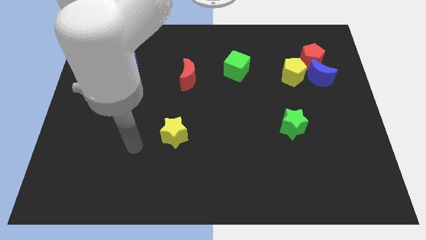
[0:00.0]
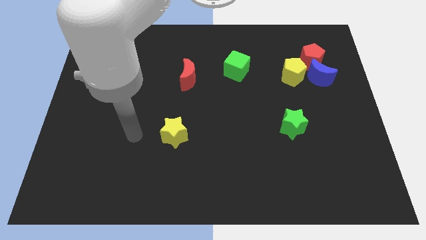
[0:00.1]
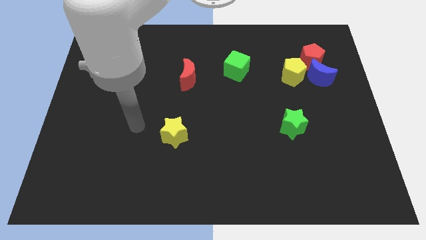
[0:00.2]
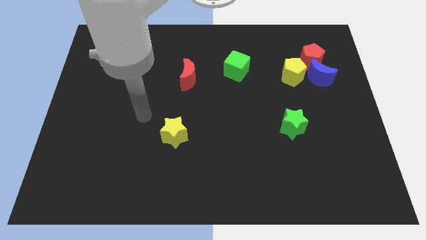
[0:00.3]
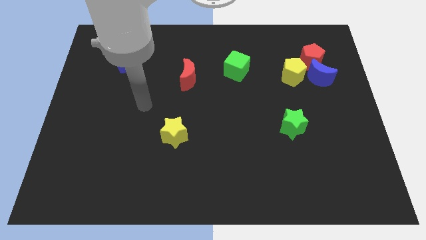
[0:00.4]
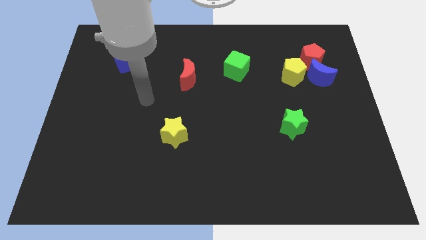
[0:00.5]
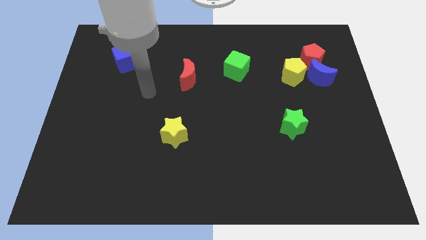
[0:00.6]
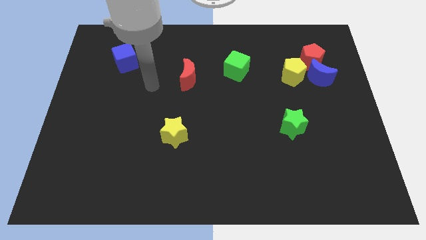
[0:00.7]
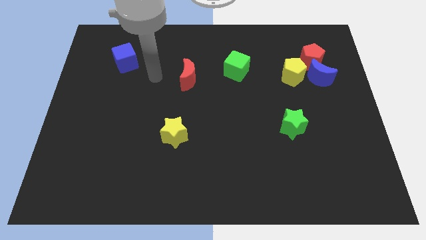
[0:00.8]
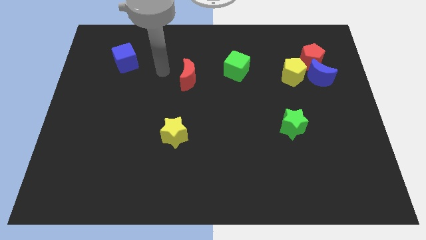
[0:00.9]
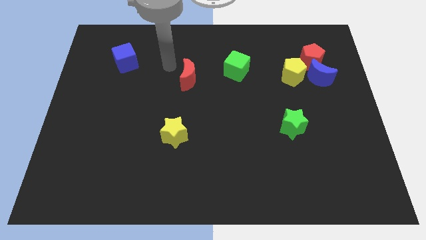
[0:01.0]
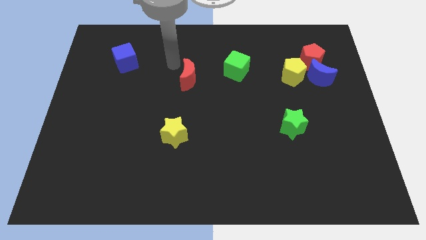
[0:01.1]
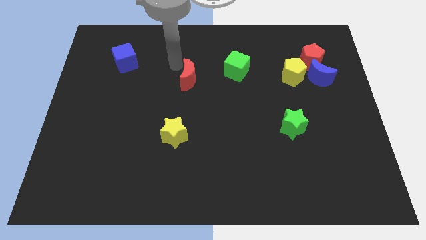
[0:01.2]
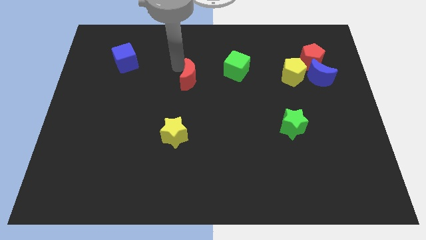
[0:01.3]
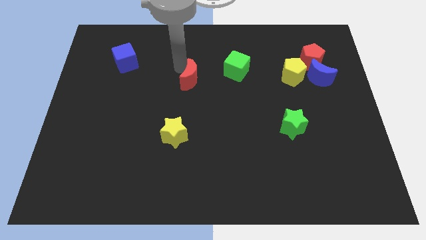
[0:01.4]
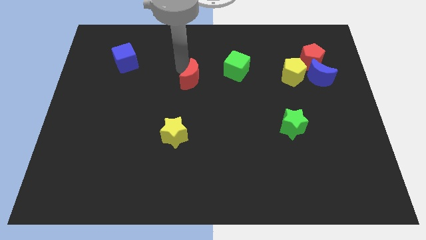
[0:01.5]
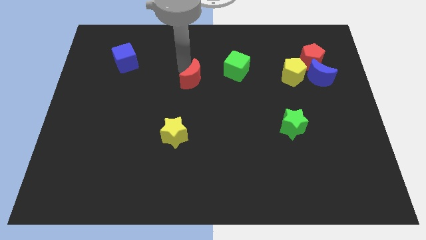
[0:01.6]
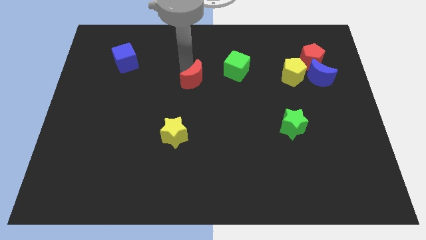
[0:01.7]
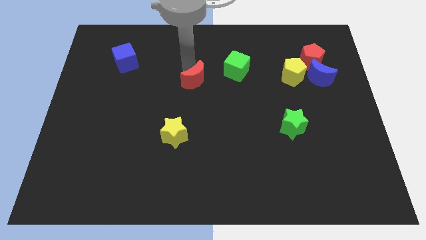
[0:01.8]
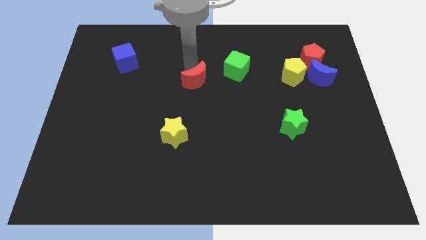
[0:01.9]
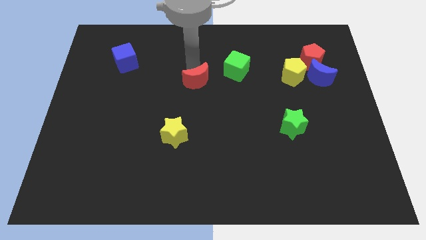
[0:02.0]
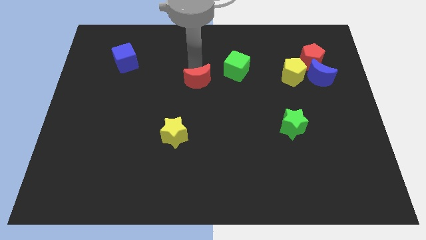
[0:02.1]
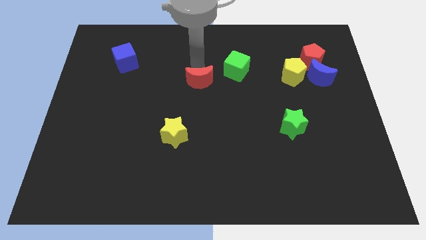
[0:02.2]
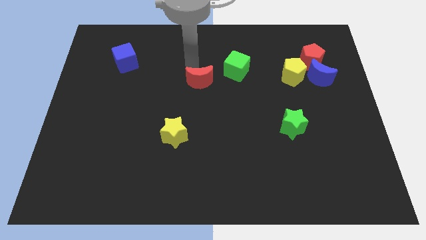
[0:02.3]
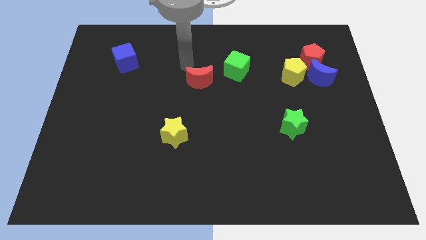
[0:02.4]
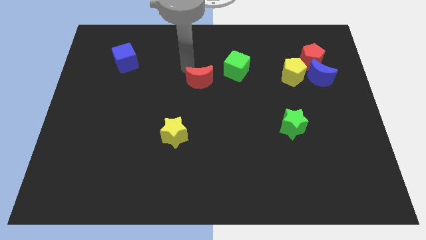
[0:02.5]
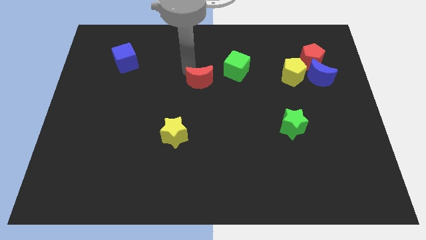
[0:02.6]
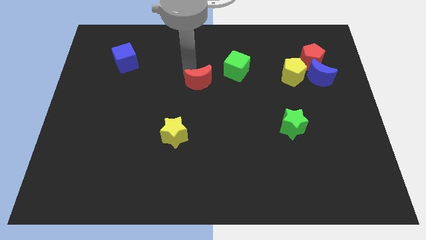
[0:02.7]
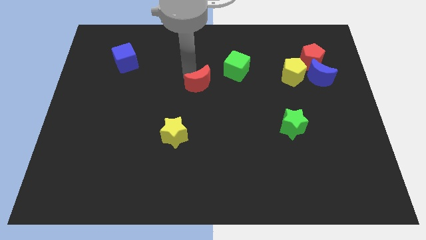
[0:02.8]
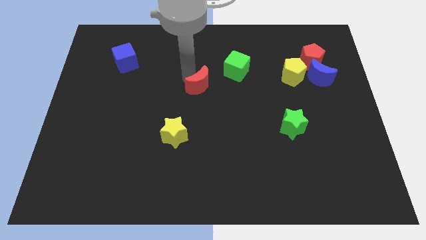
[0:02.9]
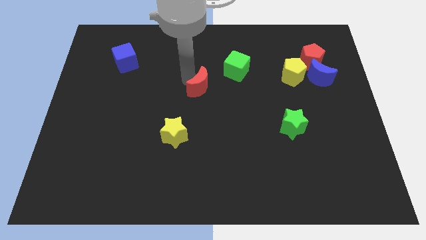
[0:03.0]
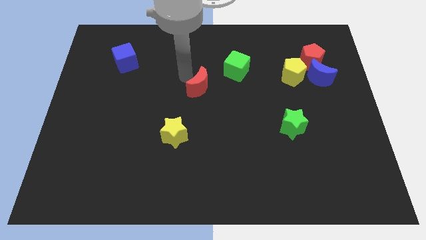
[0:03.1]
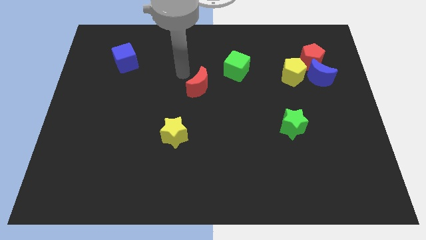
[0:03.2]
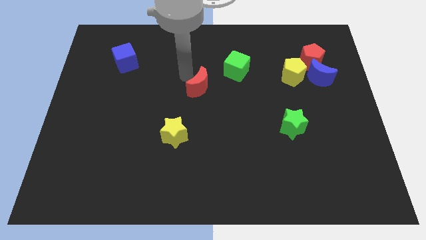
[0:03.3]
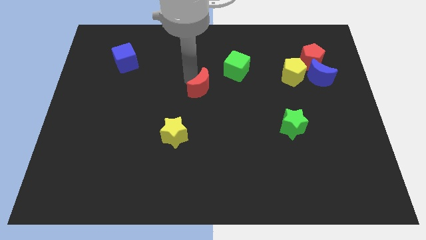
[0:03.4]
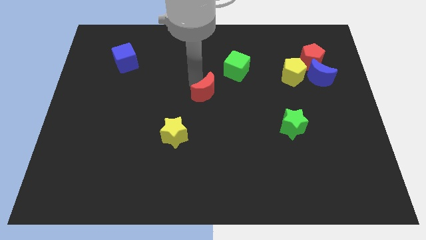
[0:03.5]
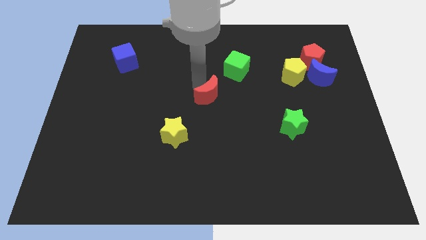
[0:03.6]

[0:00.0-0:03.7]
move the red moon somewhat down and to the right

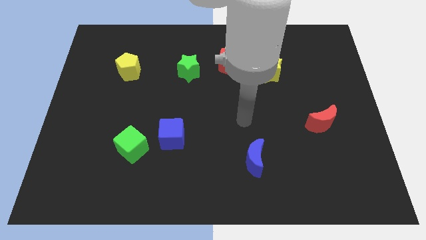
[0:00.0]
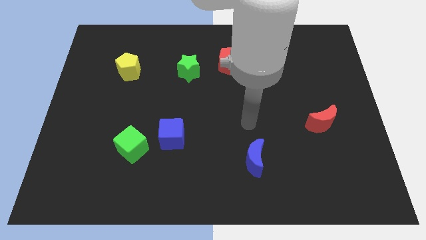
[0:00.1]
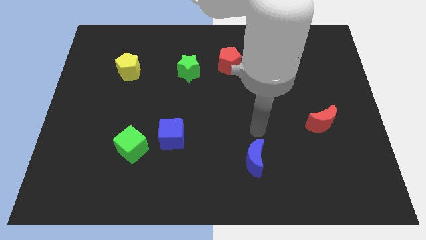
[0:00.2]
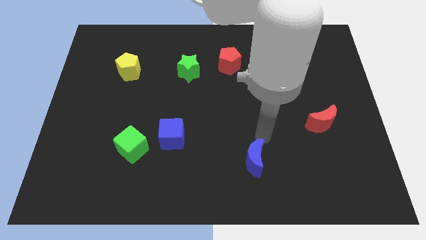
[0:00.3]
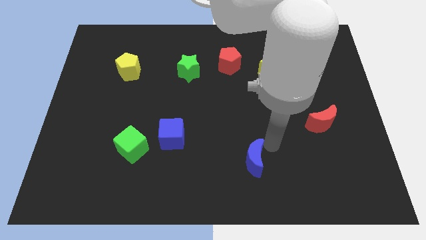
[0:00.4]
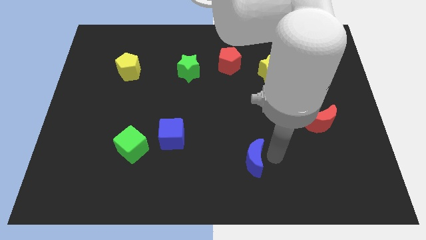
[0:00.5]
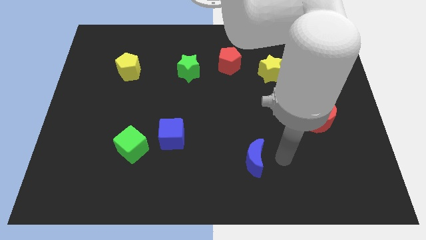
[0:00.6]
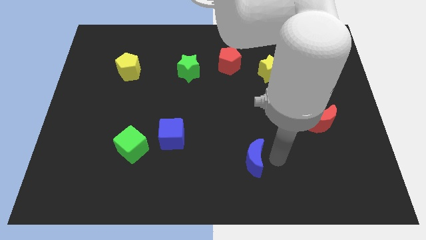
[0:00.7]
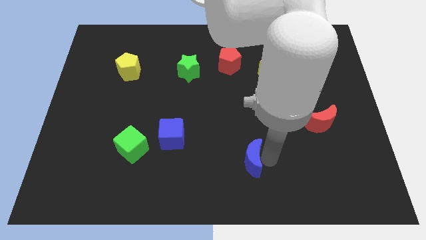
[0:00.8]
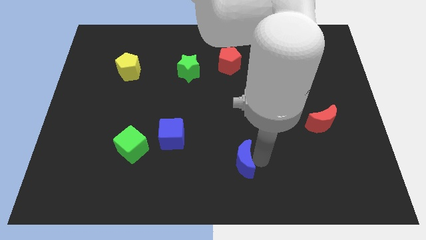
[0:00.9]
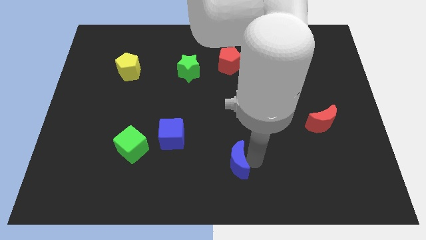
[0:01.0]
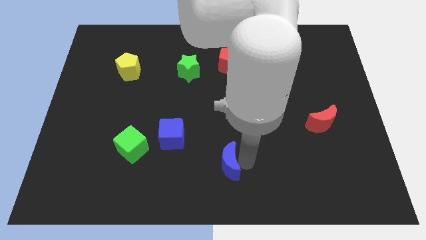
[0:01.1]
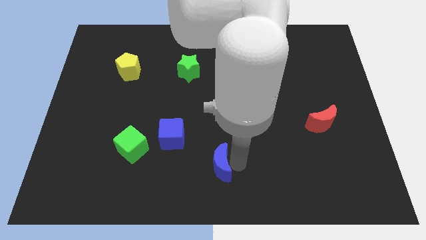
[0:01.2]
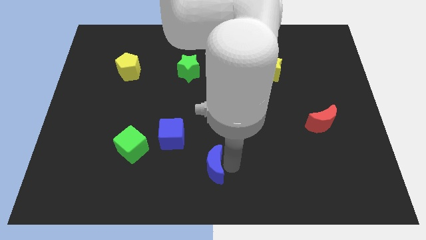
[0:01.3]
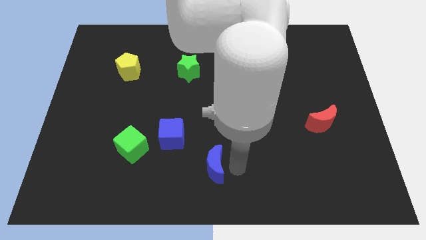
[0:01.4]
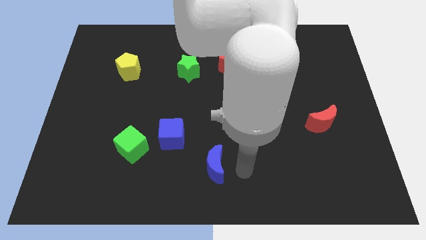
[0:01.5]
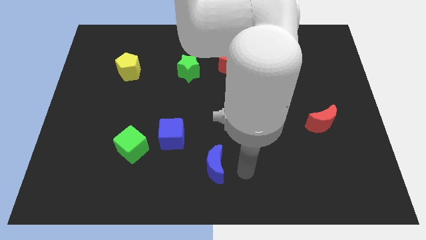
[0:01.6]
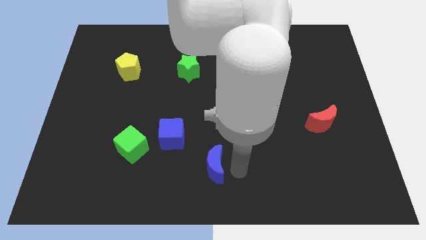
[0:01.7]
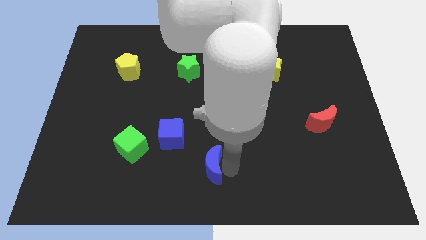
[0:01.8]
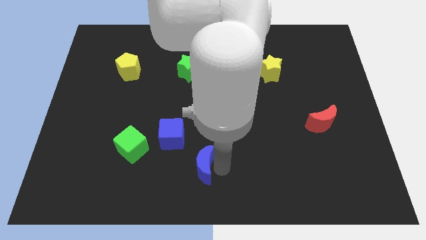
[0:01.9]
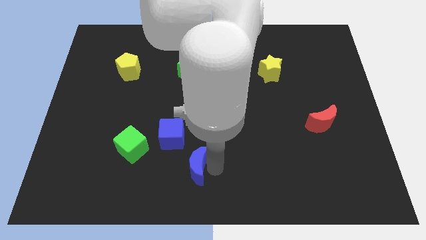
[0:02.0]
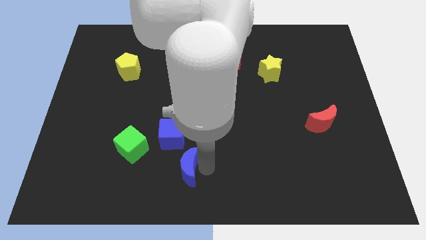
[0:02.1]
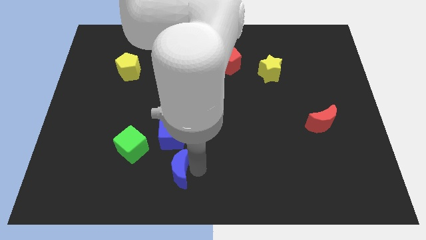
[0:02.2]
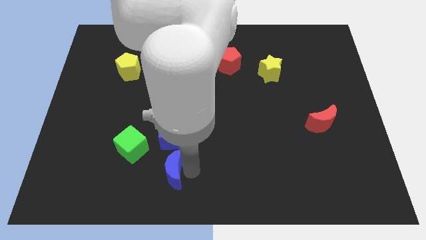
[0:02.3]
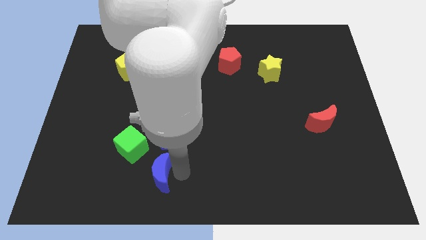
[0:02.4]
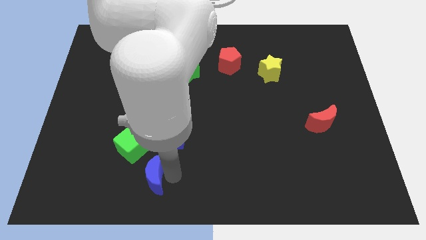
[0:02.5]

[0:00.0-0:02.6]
slide the blue moon left

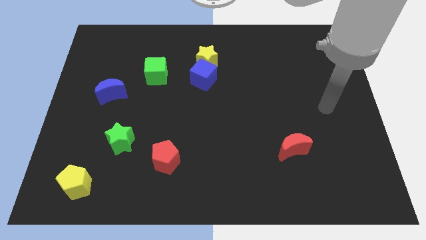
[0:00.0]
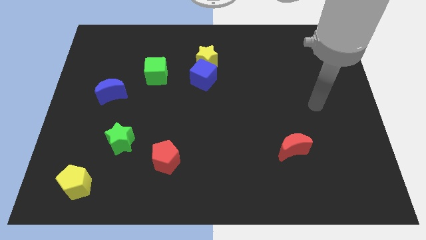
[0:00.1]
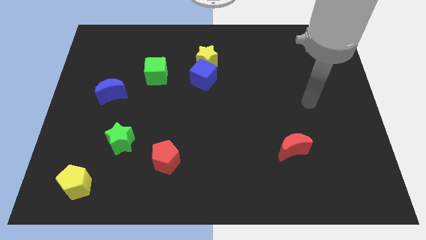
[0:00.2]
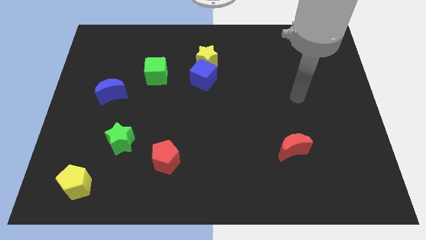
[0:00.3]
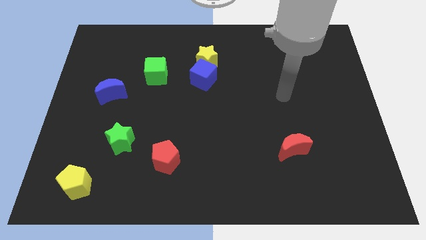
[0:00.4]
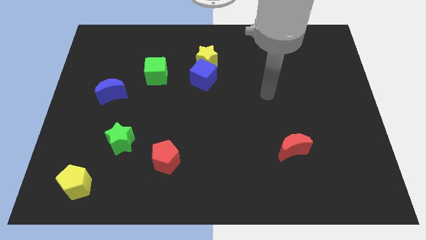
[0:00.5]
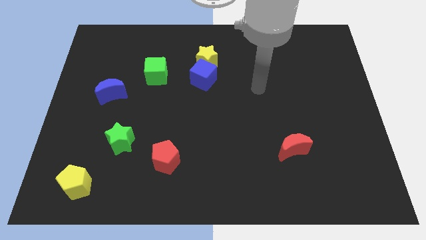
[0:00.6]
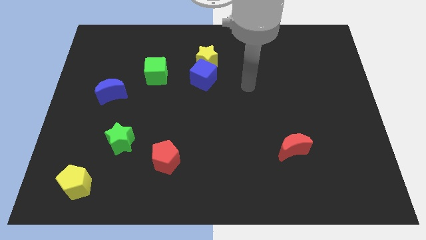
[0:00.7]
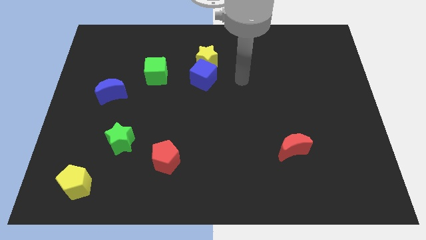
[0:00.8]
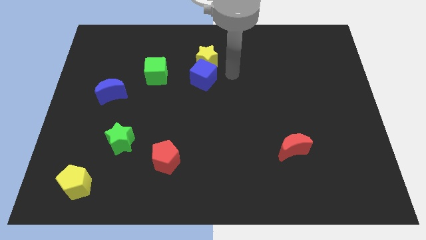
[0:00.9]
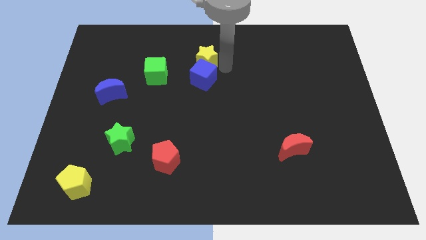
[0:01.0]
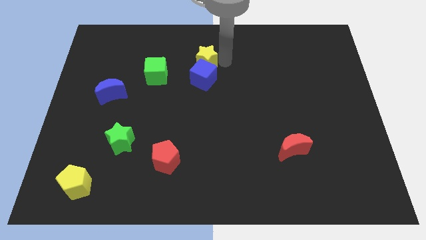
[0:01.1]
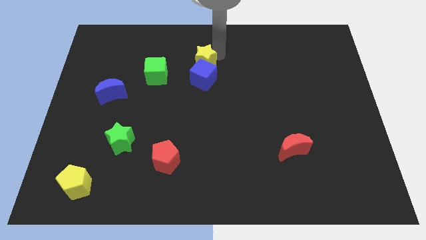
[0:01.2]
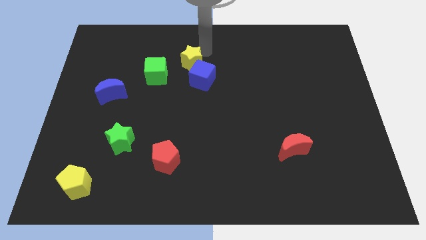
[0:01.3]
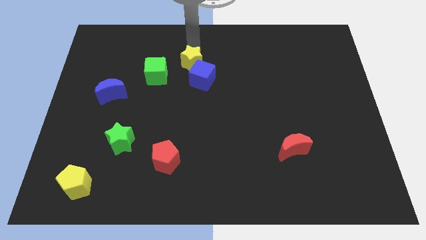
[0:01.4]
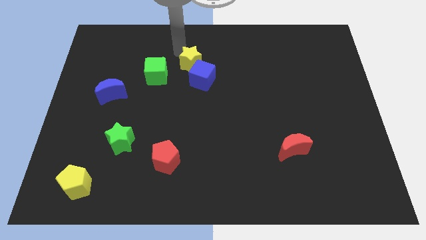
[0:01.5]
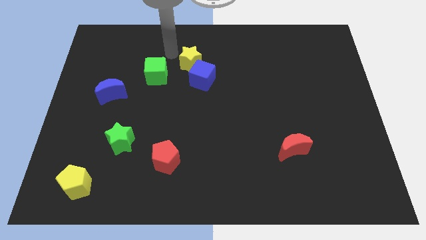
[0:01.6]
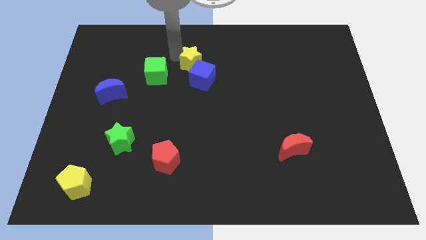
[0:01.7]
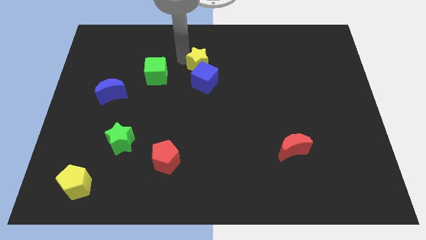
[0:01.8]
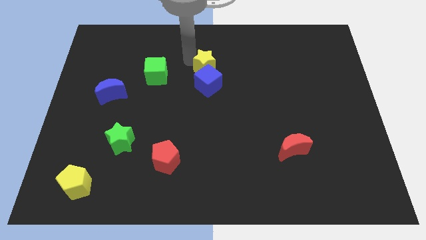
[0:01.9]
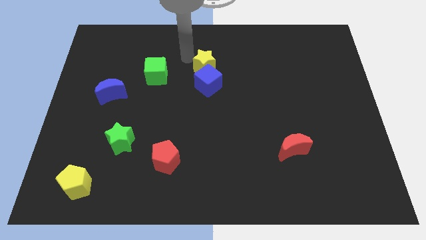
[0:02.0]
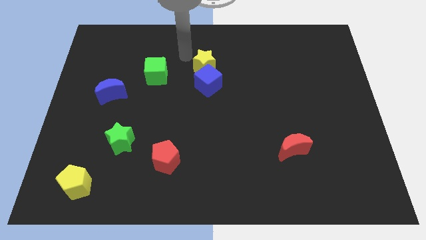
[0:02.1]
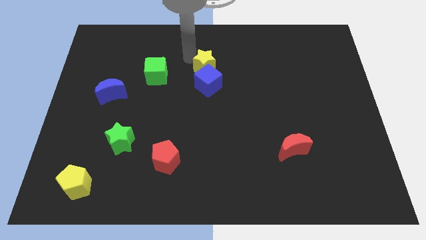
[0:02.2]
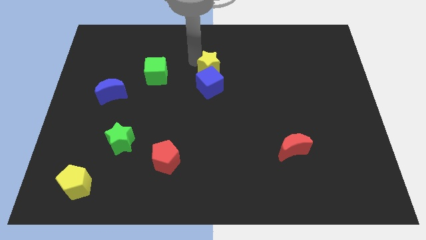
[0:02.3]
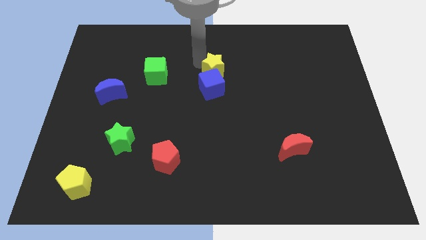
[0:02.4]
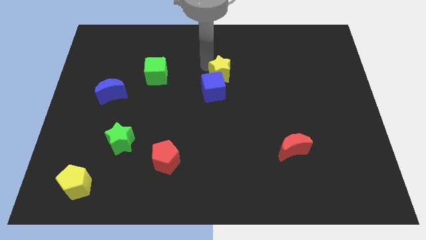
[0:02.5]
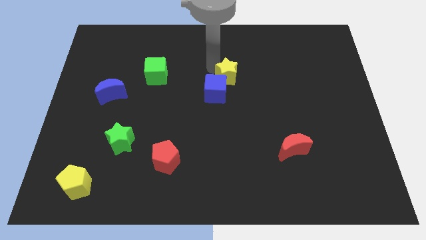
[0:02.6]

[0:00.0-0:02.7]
slide the yellow star somewhat diagonally down and to the right
